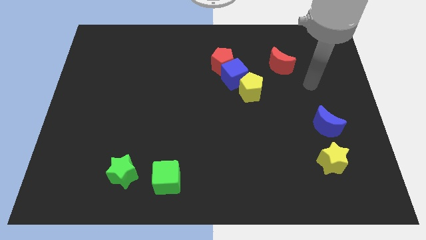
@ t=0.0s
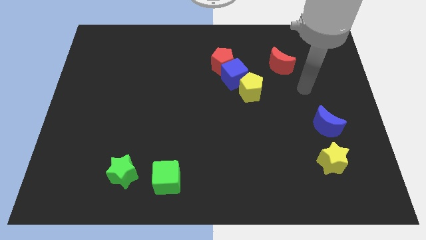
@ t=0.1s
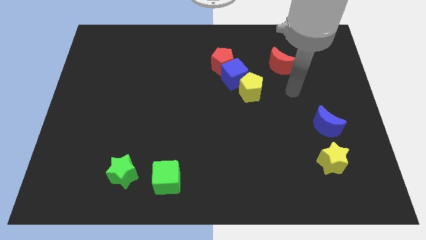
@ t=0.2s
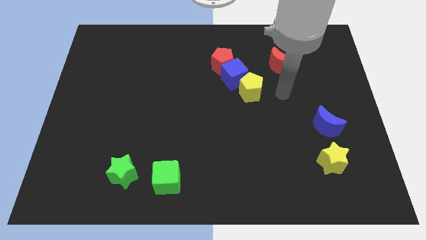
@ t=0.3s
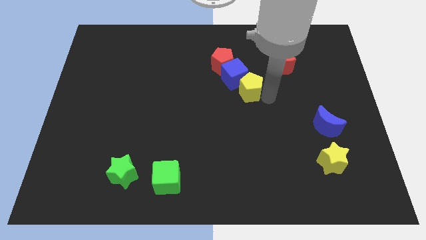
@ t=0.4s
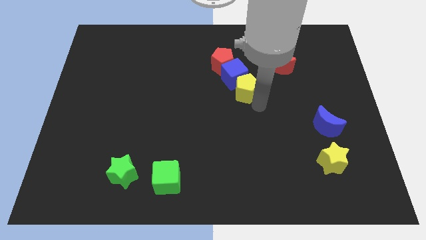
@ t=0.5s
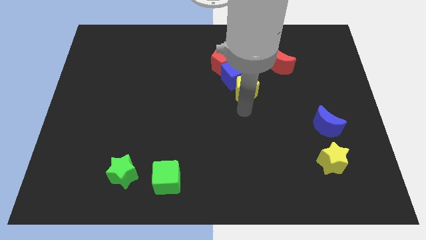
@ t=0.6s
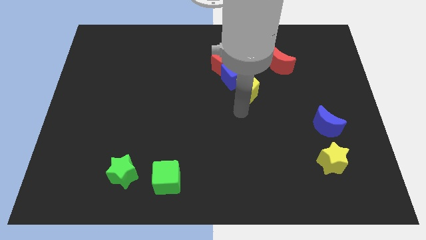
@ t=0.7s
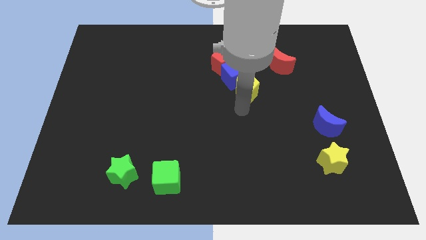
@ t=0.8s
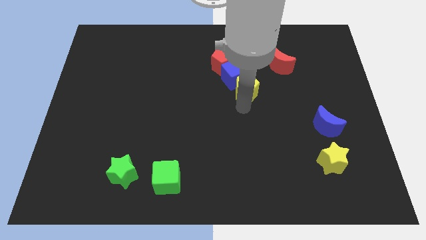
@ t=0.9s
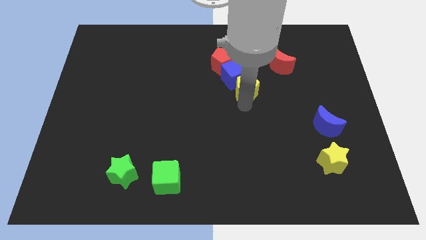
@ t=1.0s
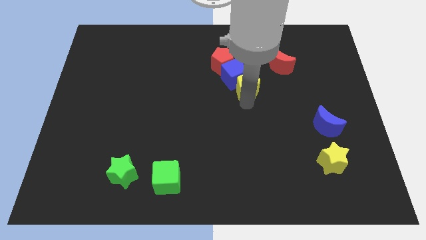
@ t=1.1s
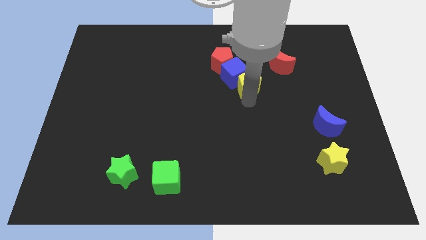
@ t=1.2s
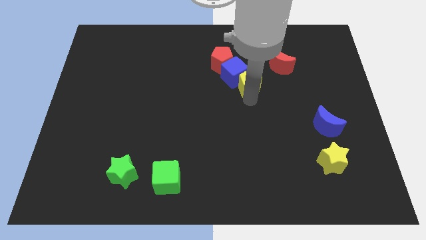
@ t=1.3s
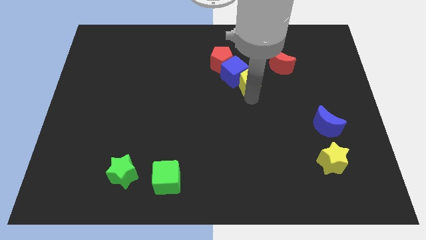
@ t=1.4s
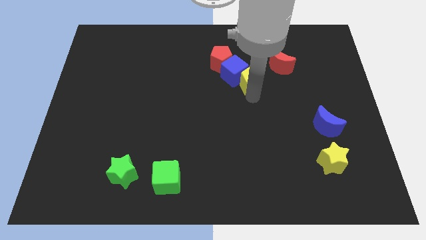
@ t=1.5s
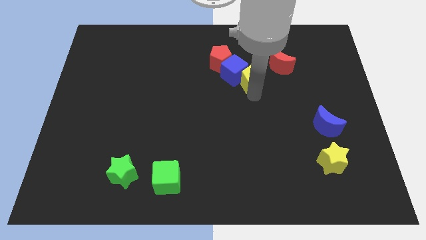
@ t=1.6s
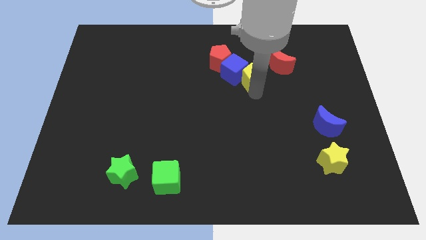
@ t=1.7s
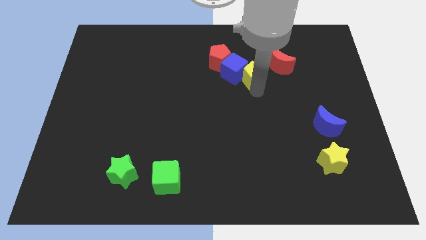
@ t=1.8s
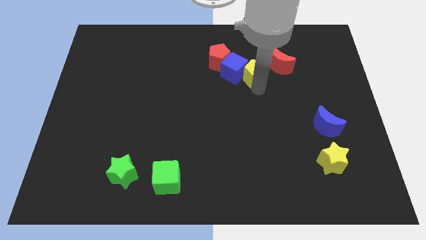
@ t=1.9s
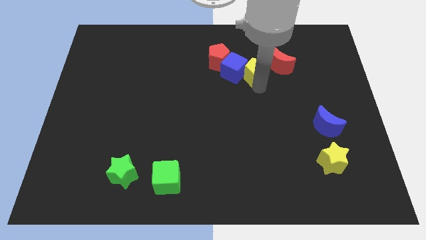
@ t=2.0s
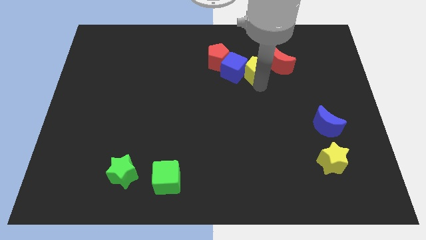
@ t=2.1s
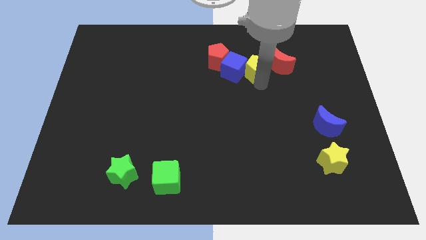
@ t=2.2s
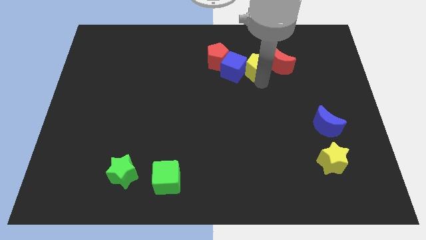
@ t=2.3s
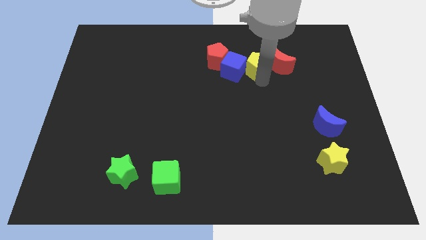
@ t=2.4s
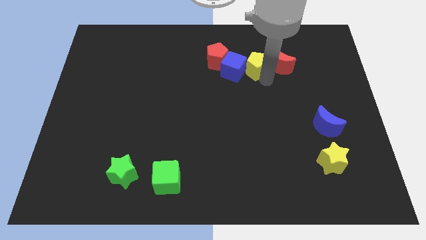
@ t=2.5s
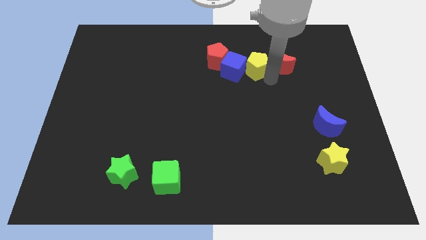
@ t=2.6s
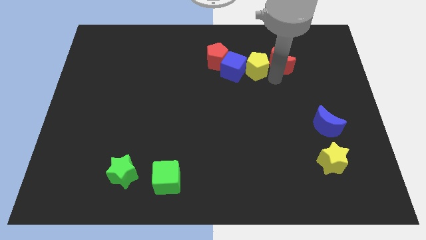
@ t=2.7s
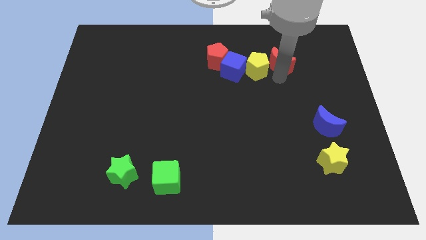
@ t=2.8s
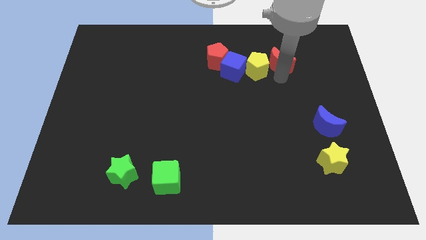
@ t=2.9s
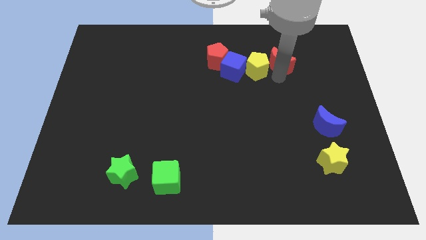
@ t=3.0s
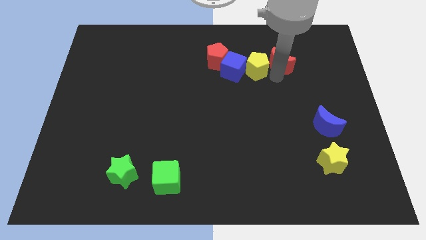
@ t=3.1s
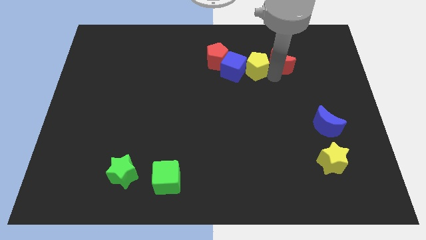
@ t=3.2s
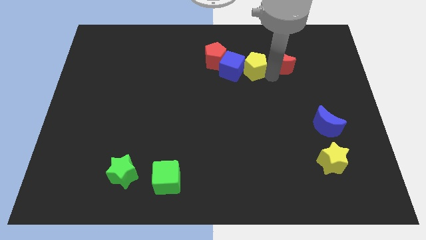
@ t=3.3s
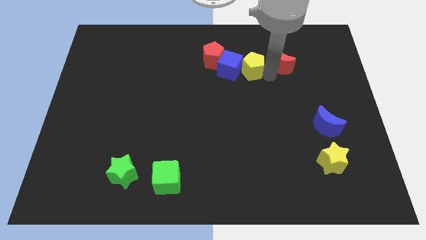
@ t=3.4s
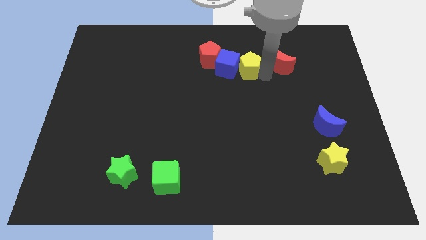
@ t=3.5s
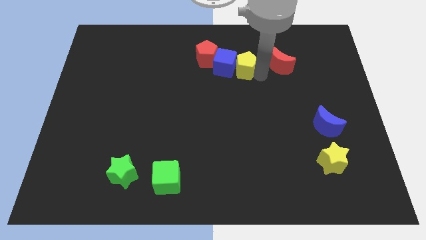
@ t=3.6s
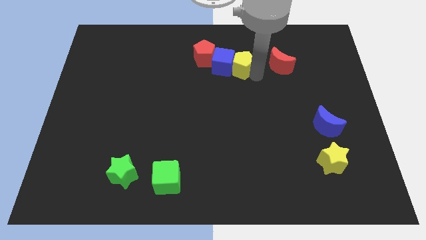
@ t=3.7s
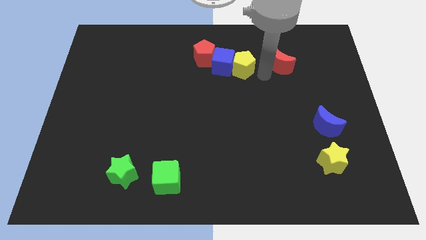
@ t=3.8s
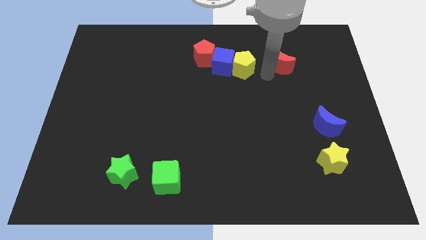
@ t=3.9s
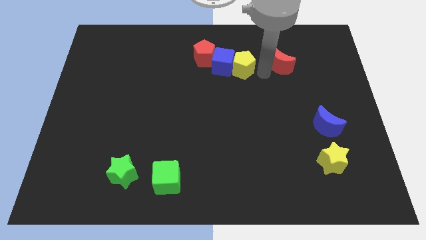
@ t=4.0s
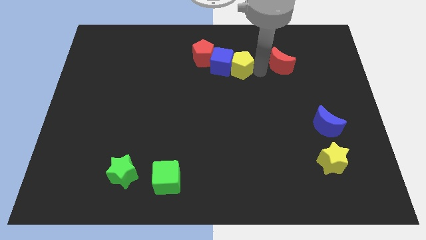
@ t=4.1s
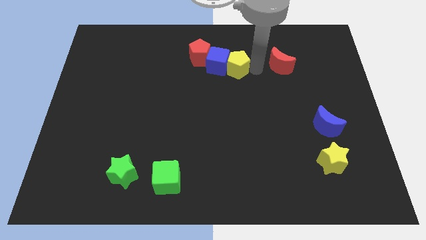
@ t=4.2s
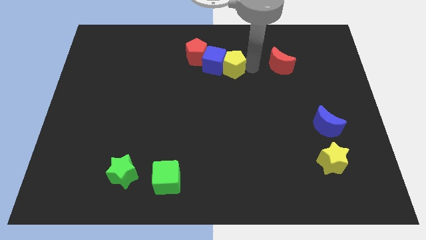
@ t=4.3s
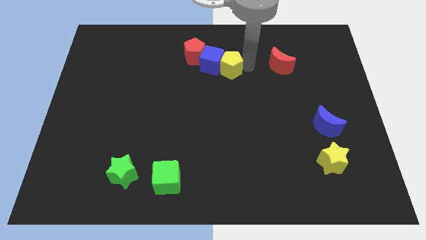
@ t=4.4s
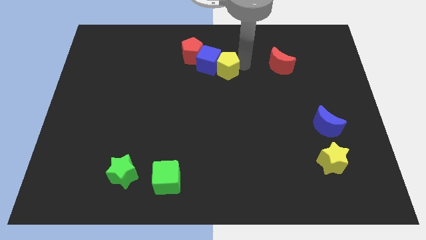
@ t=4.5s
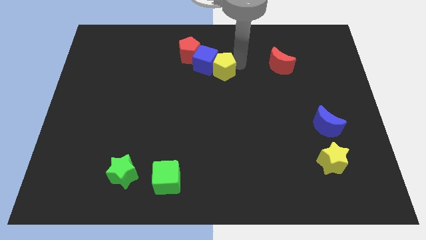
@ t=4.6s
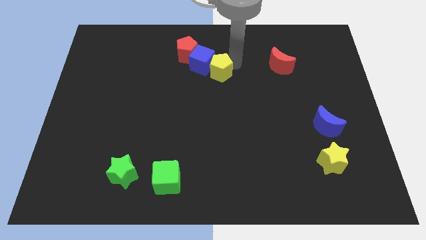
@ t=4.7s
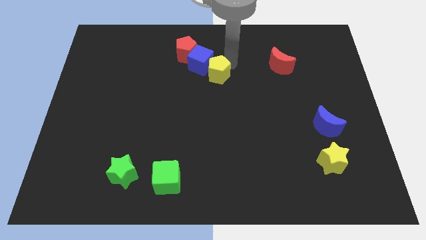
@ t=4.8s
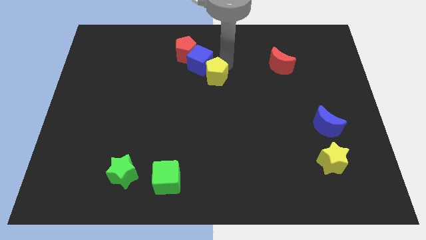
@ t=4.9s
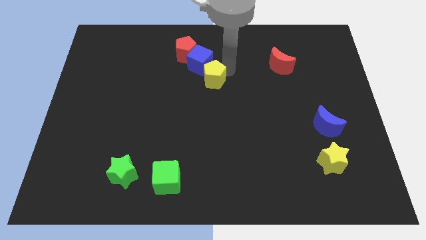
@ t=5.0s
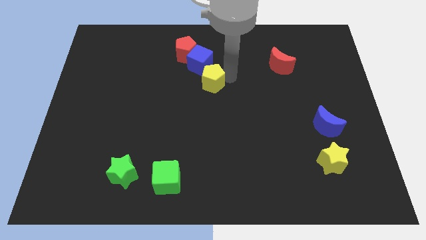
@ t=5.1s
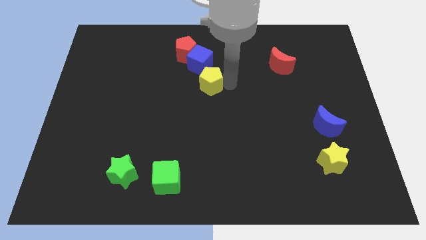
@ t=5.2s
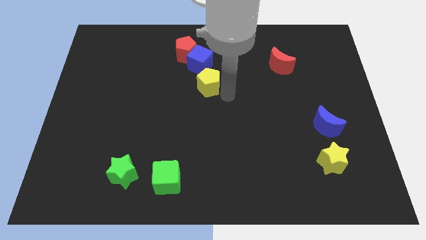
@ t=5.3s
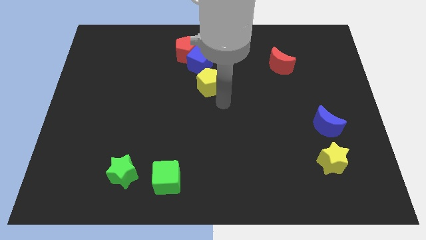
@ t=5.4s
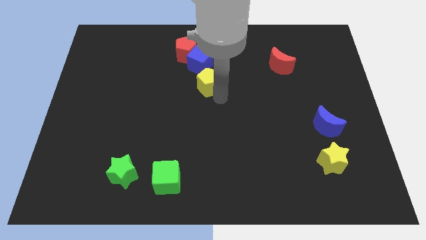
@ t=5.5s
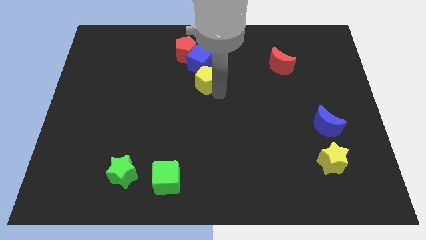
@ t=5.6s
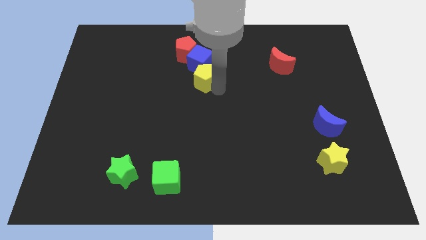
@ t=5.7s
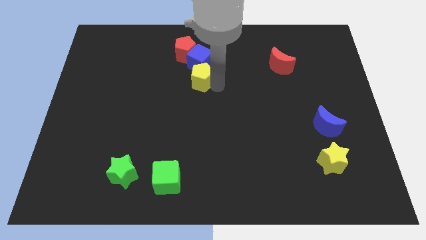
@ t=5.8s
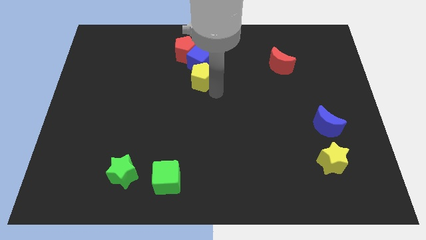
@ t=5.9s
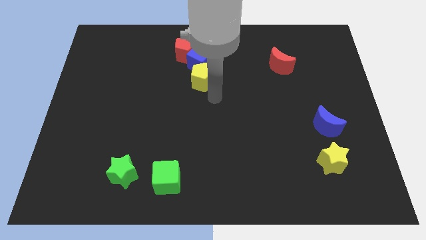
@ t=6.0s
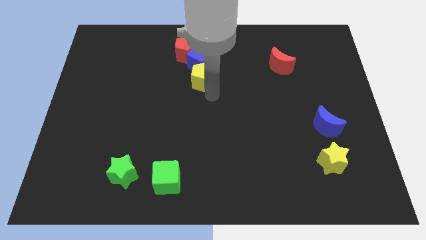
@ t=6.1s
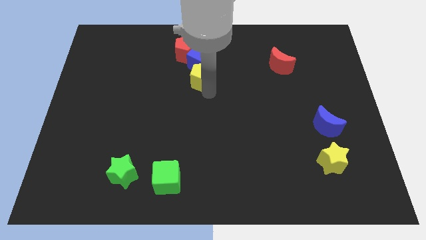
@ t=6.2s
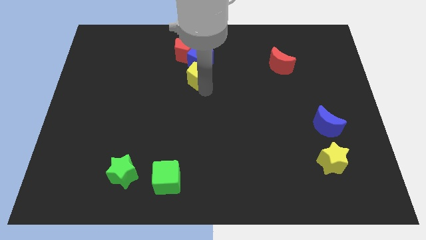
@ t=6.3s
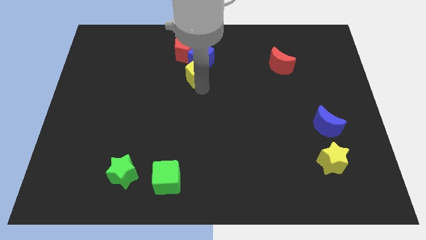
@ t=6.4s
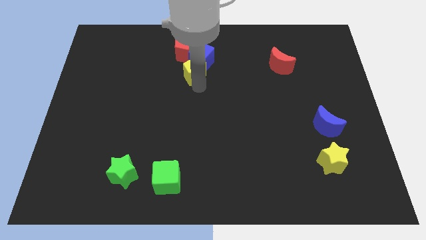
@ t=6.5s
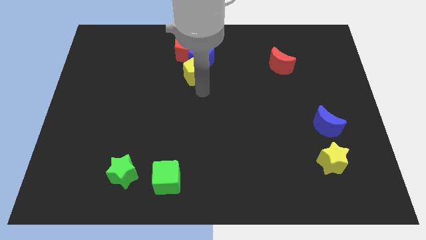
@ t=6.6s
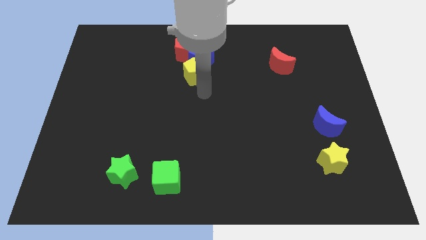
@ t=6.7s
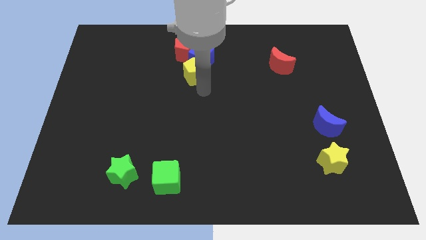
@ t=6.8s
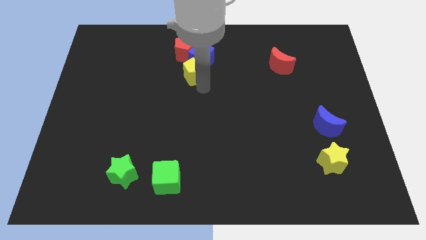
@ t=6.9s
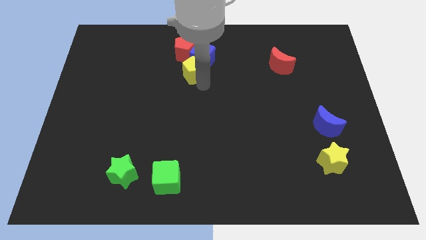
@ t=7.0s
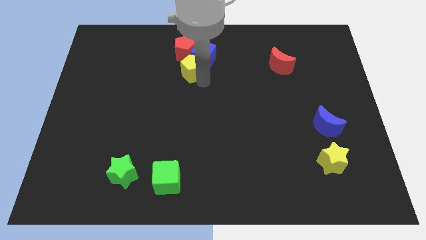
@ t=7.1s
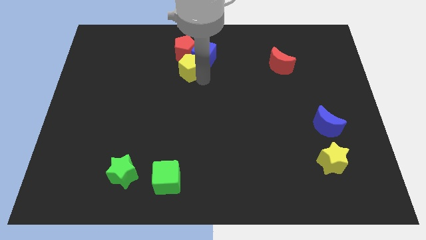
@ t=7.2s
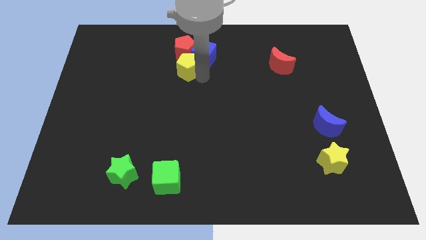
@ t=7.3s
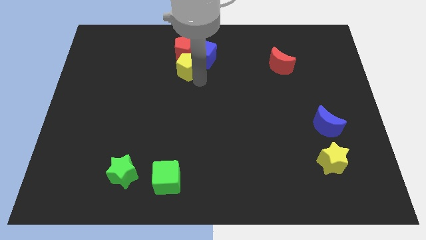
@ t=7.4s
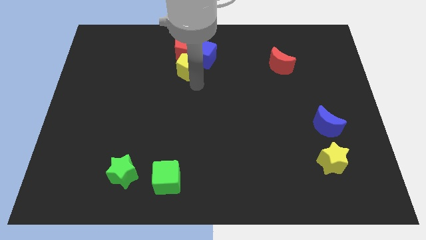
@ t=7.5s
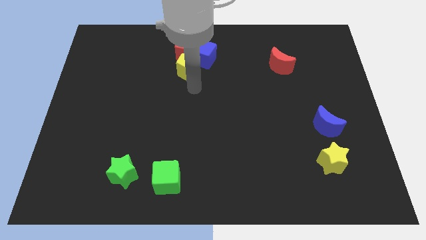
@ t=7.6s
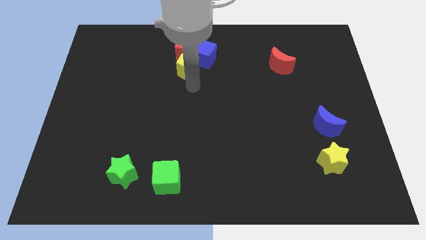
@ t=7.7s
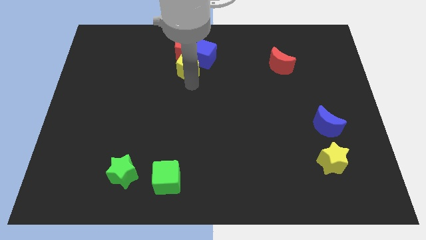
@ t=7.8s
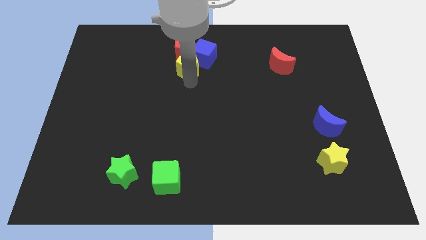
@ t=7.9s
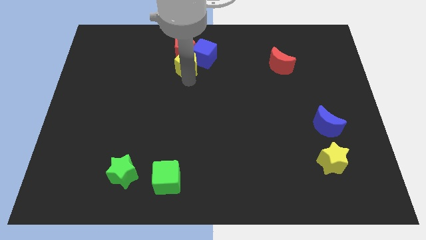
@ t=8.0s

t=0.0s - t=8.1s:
move the yellow pentagon to the red pentagon
